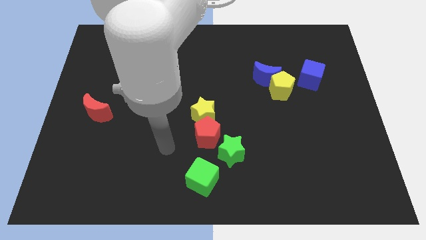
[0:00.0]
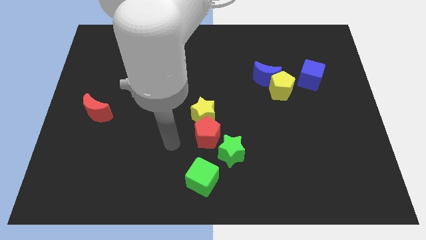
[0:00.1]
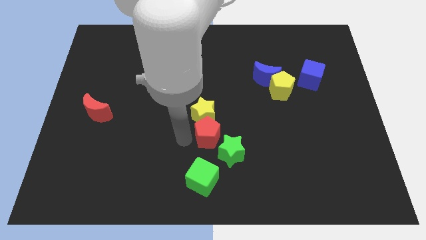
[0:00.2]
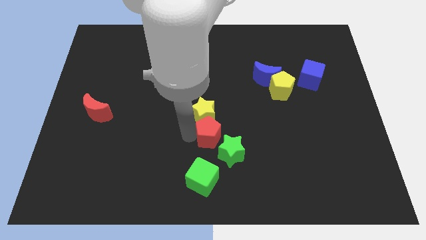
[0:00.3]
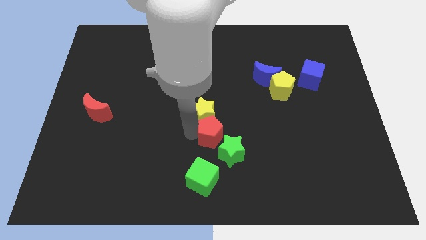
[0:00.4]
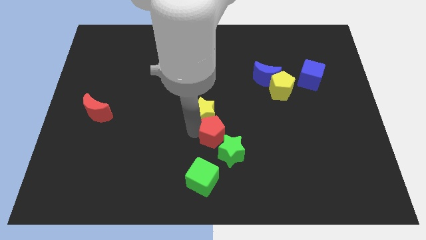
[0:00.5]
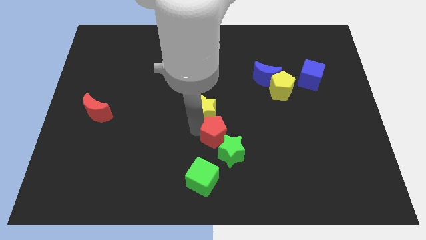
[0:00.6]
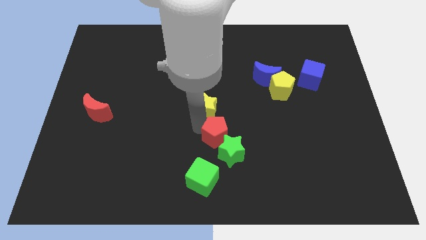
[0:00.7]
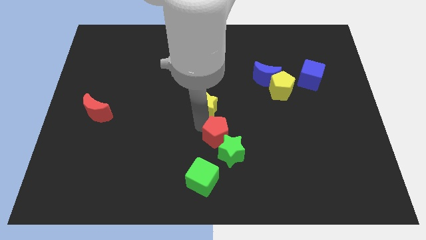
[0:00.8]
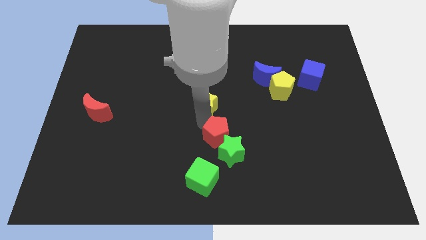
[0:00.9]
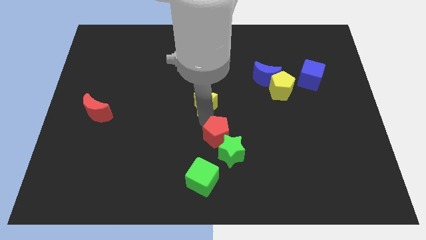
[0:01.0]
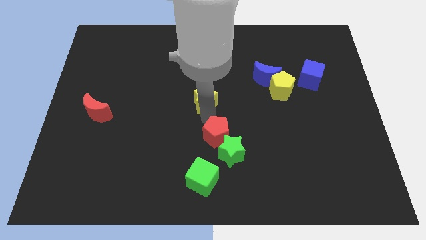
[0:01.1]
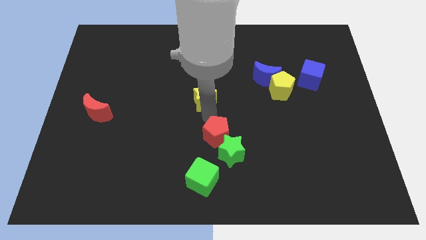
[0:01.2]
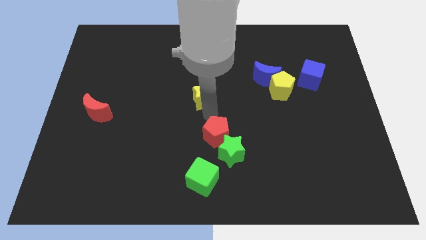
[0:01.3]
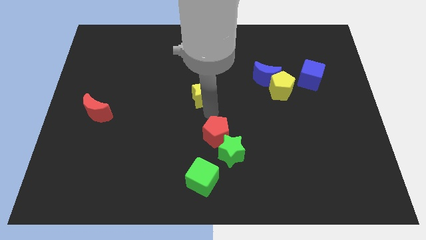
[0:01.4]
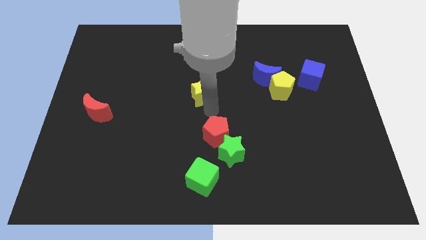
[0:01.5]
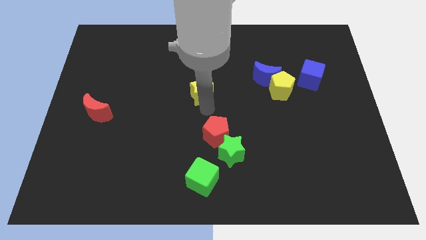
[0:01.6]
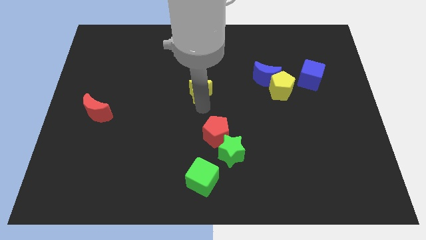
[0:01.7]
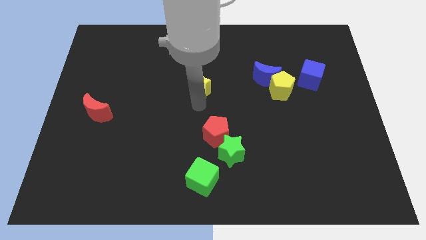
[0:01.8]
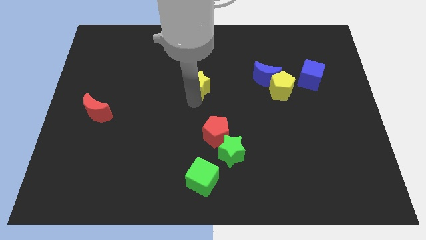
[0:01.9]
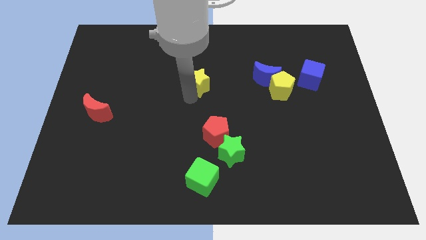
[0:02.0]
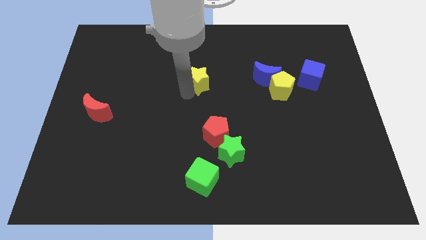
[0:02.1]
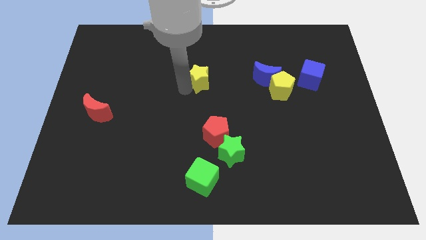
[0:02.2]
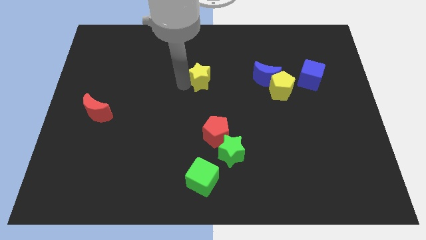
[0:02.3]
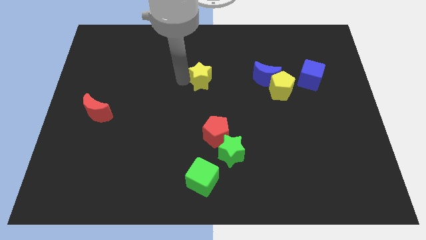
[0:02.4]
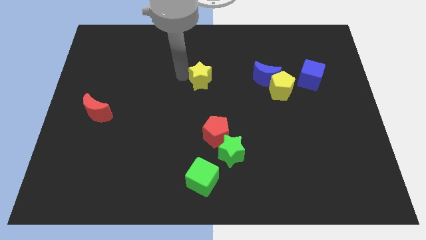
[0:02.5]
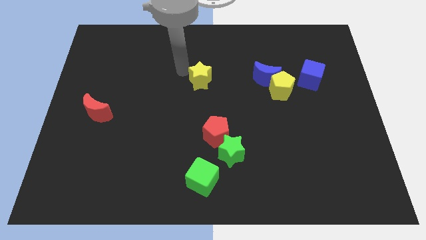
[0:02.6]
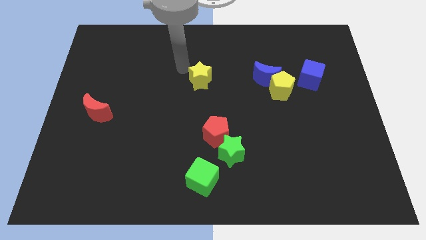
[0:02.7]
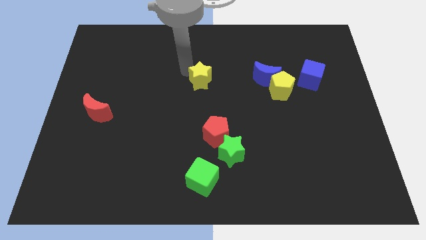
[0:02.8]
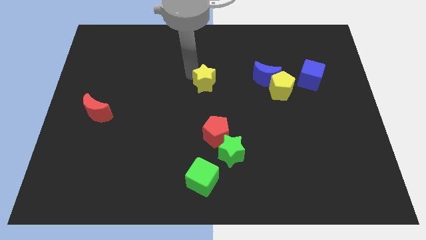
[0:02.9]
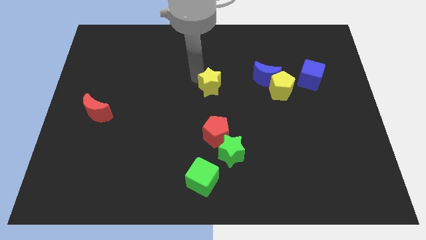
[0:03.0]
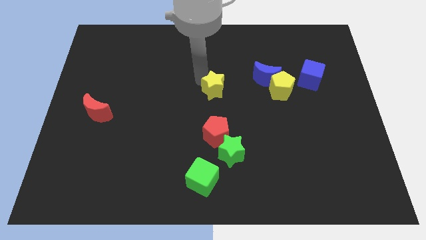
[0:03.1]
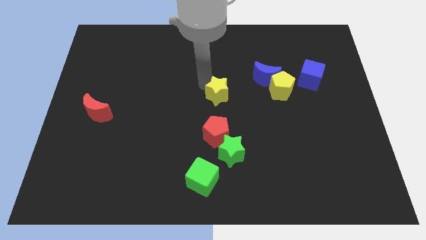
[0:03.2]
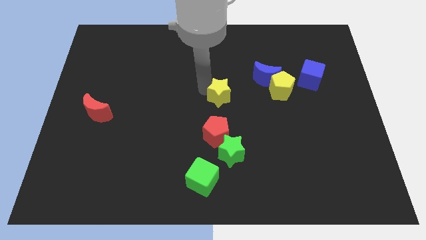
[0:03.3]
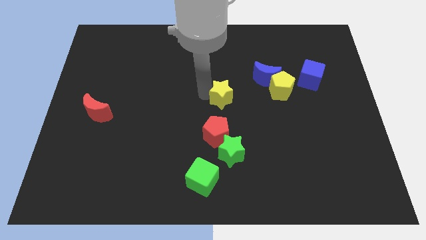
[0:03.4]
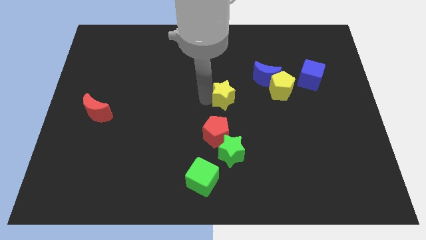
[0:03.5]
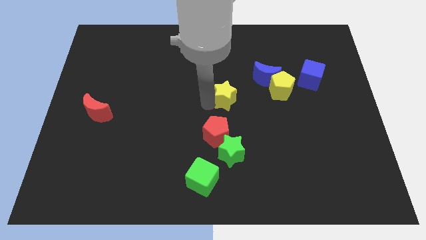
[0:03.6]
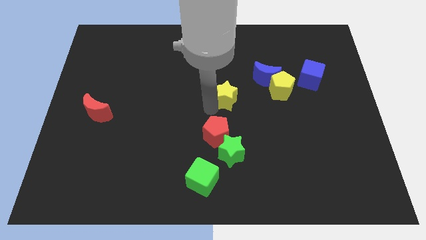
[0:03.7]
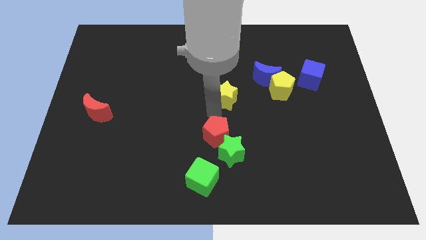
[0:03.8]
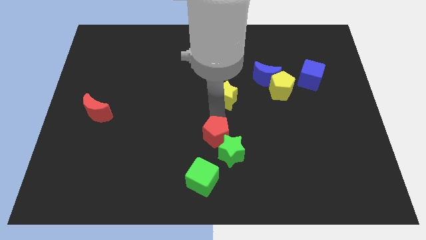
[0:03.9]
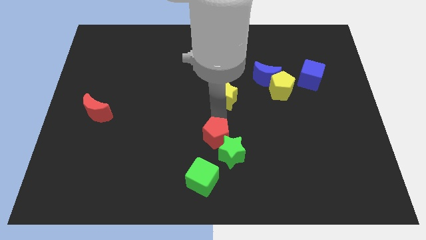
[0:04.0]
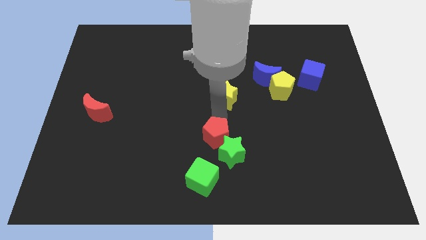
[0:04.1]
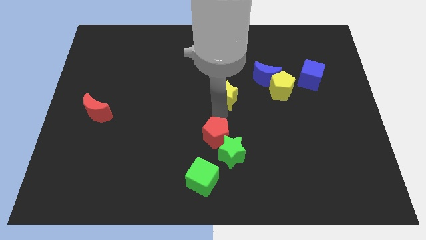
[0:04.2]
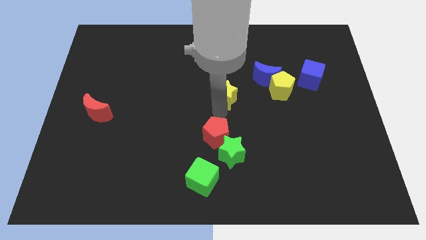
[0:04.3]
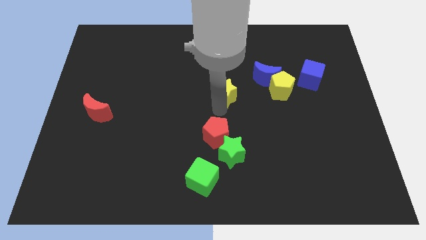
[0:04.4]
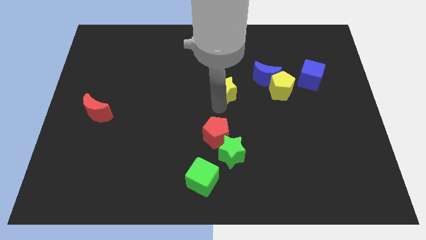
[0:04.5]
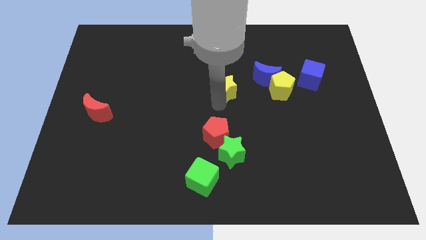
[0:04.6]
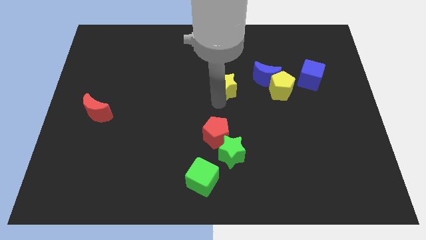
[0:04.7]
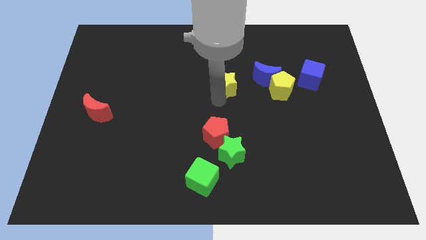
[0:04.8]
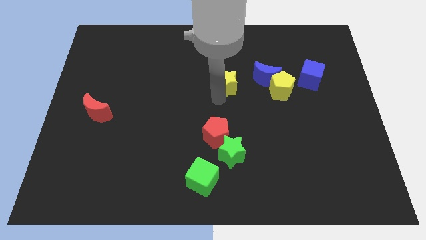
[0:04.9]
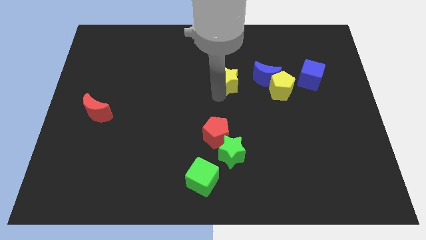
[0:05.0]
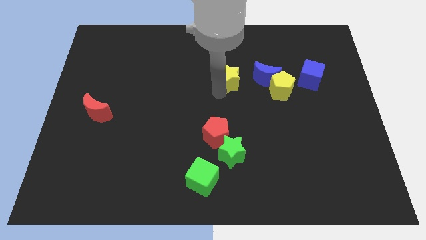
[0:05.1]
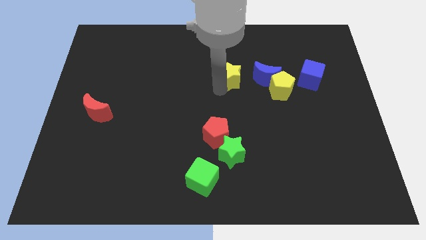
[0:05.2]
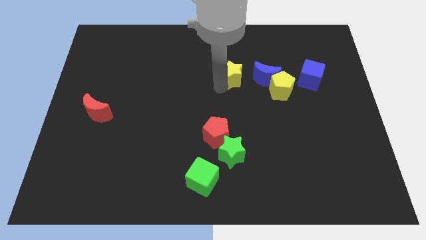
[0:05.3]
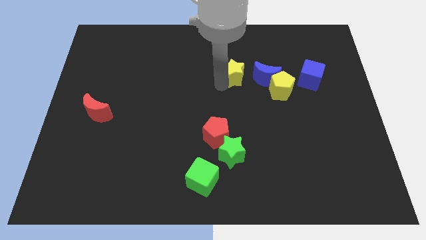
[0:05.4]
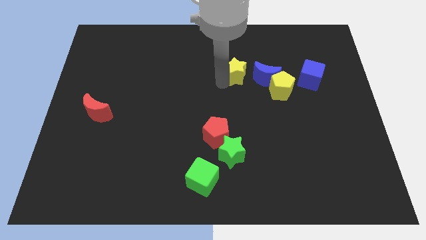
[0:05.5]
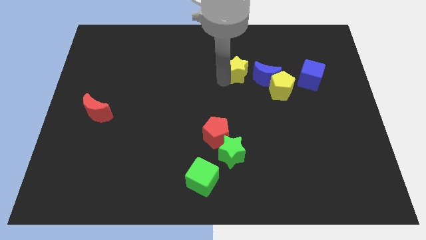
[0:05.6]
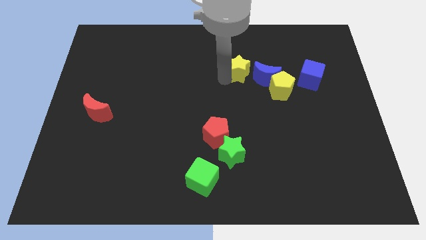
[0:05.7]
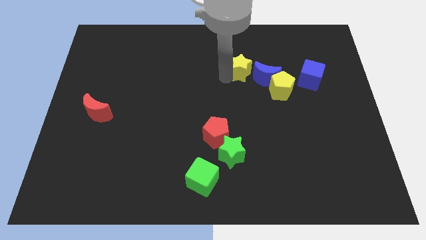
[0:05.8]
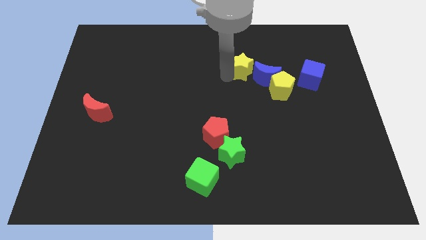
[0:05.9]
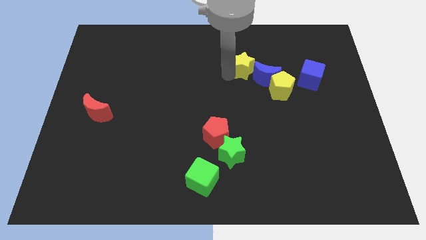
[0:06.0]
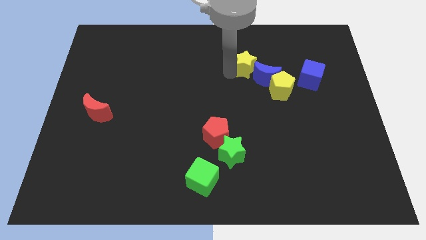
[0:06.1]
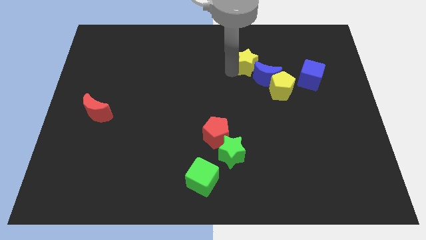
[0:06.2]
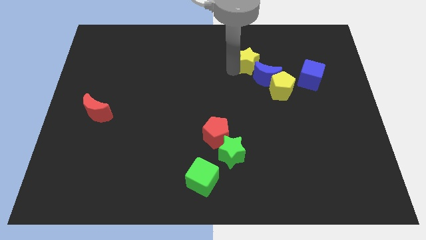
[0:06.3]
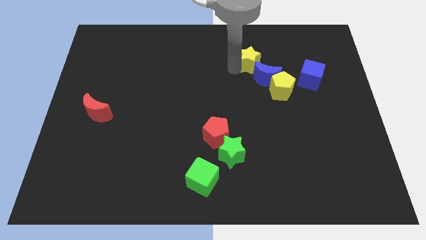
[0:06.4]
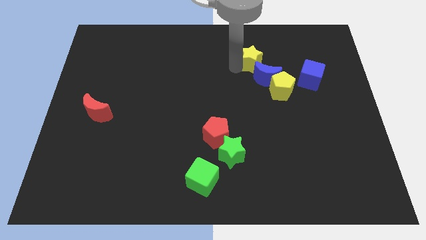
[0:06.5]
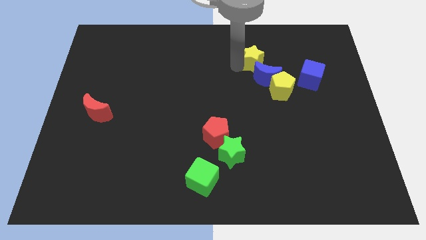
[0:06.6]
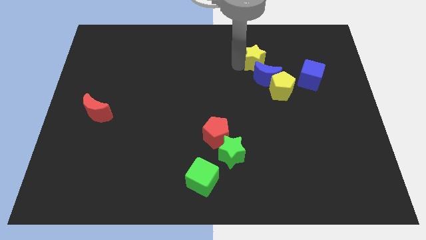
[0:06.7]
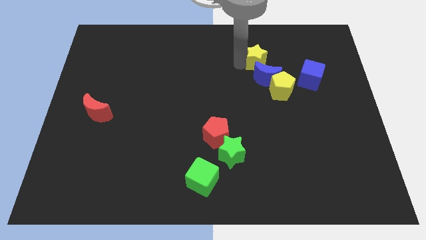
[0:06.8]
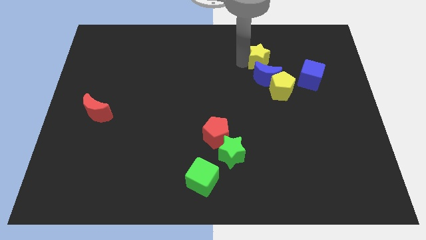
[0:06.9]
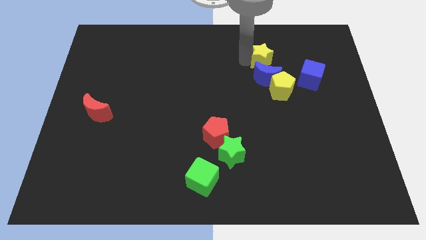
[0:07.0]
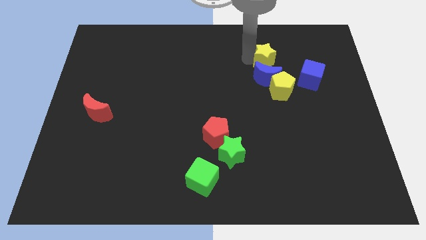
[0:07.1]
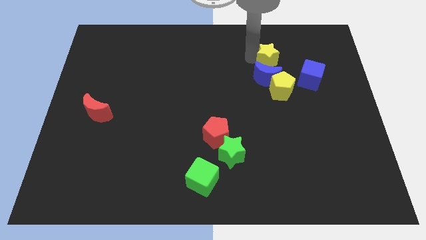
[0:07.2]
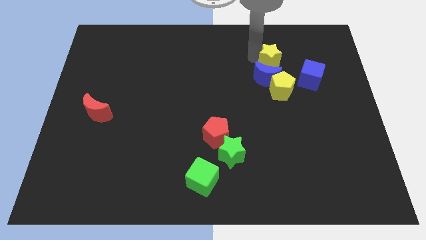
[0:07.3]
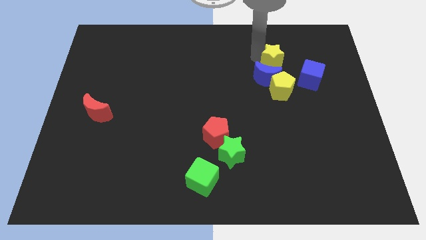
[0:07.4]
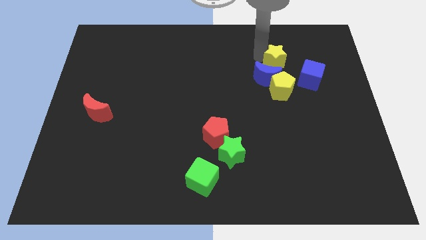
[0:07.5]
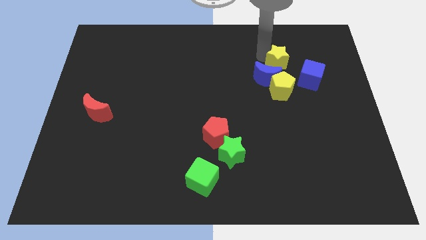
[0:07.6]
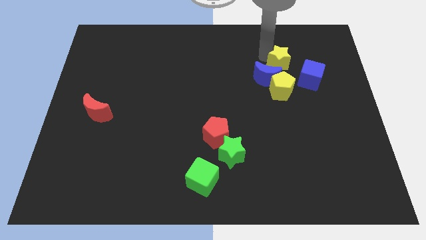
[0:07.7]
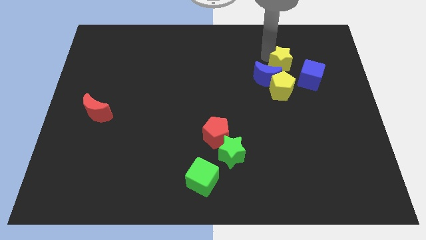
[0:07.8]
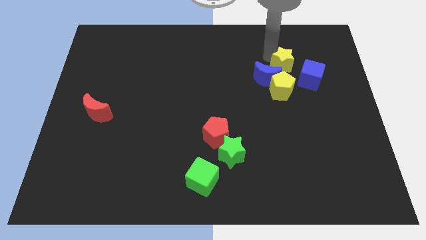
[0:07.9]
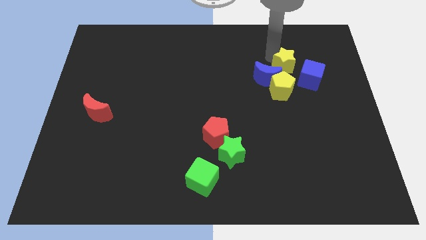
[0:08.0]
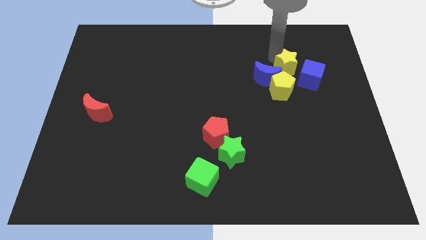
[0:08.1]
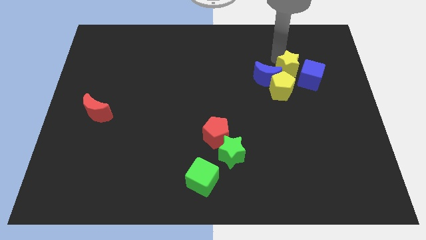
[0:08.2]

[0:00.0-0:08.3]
put the yellow star to the blue cube
